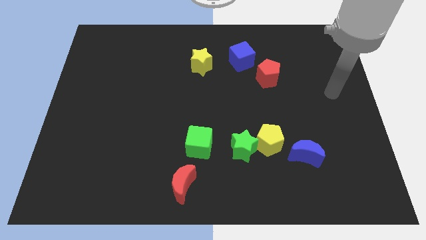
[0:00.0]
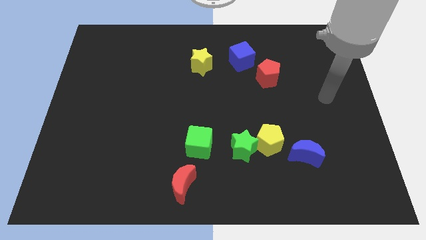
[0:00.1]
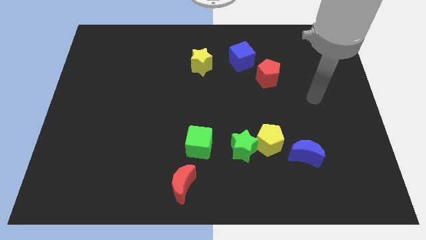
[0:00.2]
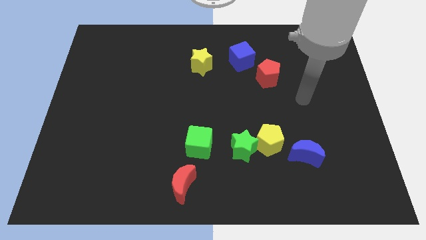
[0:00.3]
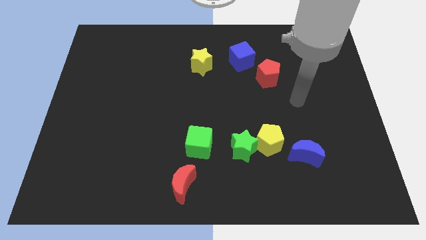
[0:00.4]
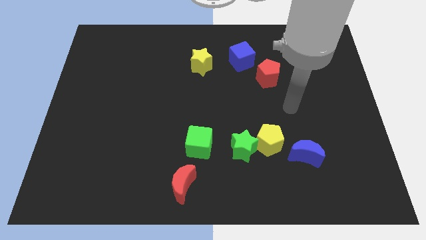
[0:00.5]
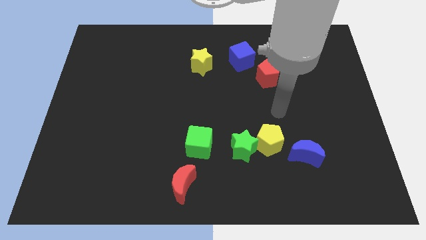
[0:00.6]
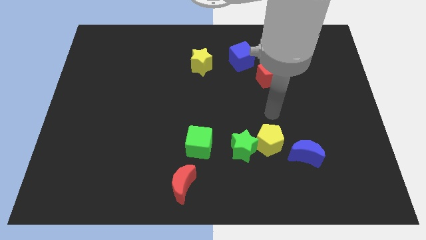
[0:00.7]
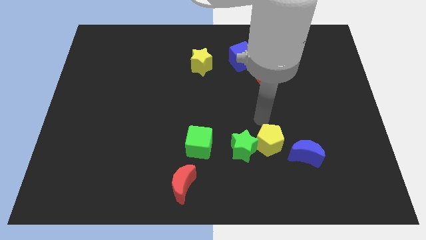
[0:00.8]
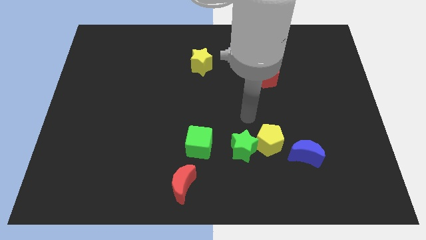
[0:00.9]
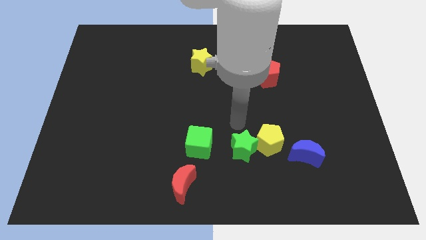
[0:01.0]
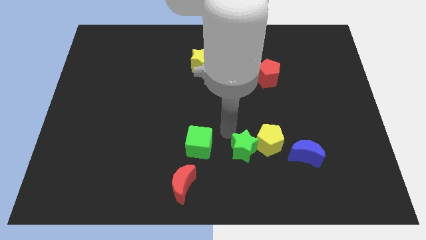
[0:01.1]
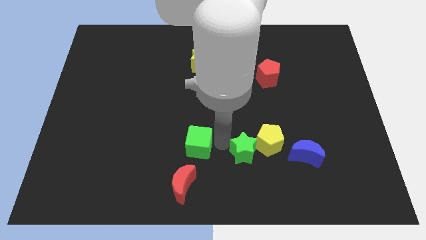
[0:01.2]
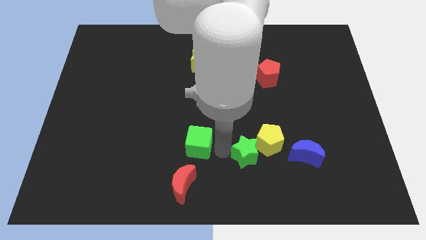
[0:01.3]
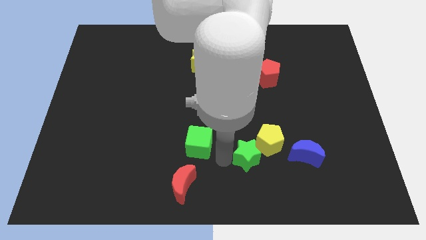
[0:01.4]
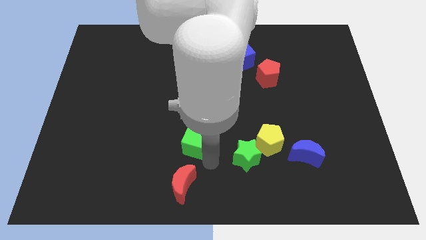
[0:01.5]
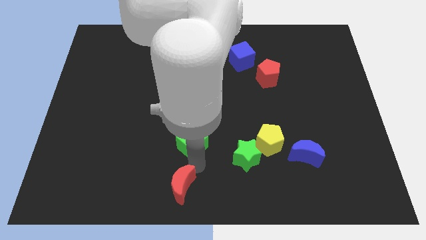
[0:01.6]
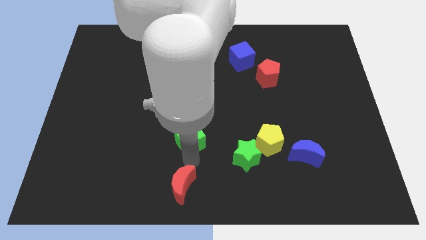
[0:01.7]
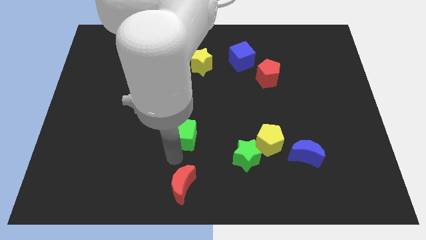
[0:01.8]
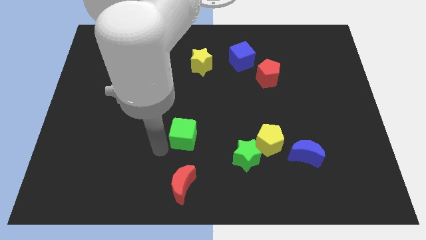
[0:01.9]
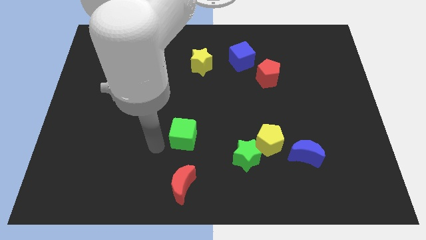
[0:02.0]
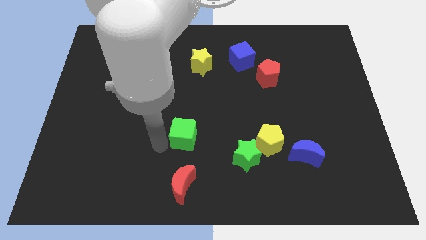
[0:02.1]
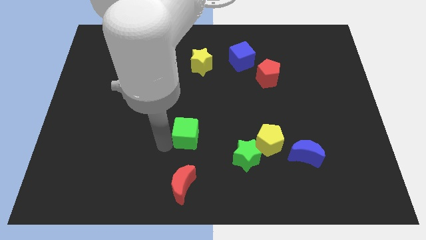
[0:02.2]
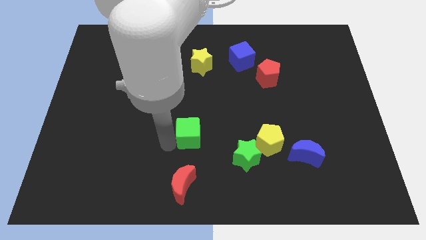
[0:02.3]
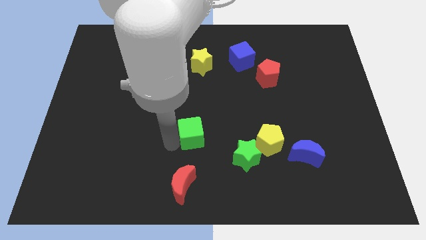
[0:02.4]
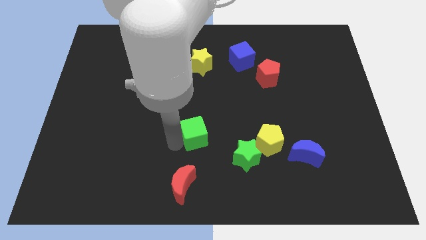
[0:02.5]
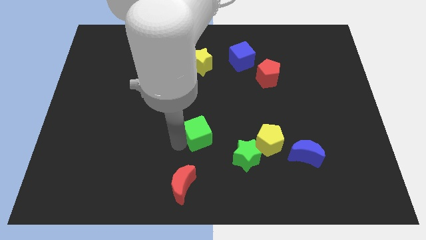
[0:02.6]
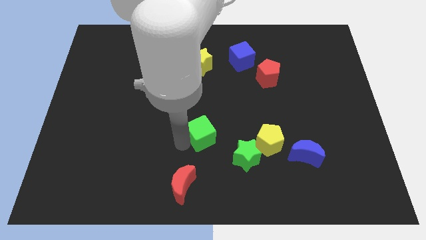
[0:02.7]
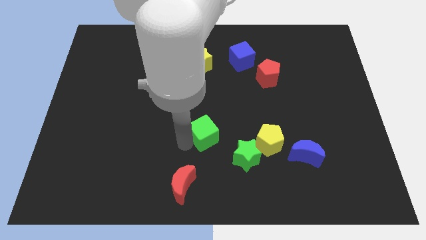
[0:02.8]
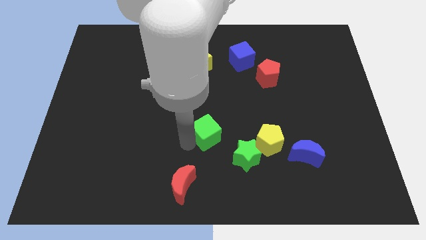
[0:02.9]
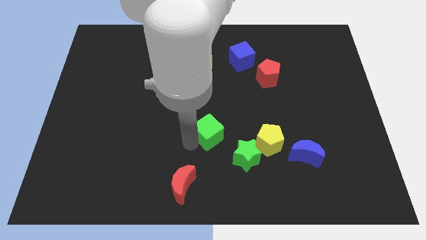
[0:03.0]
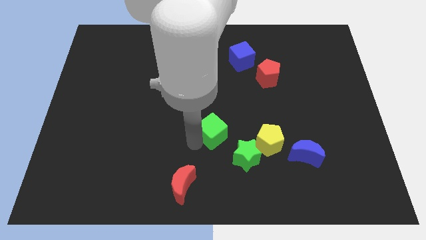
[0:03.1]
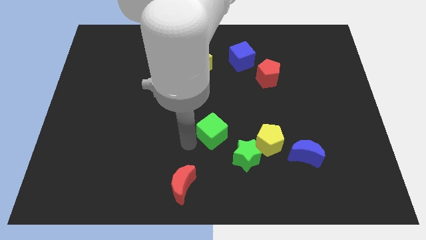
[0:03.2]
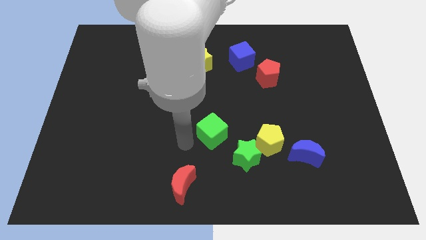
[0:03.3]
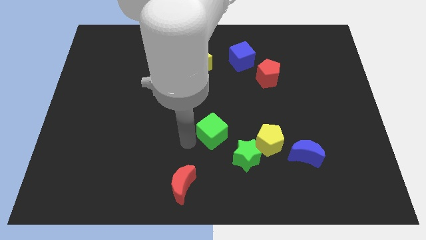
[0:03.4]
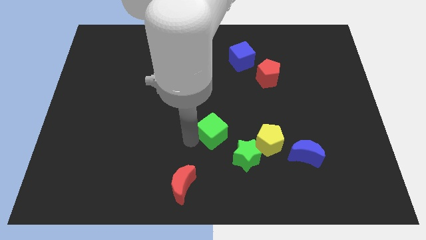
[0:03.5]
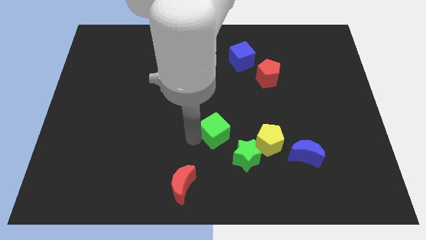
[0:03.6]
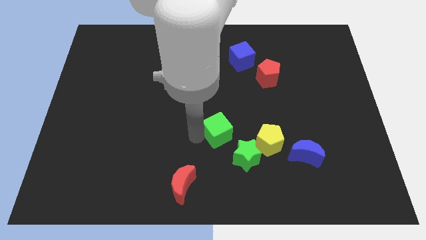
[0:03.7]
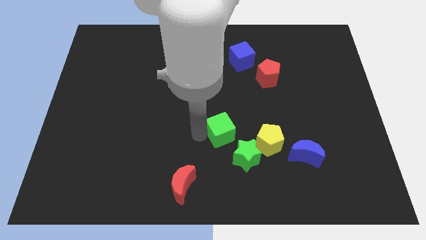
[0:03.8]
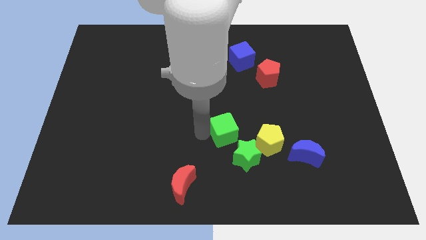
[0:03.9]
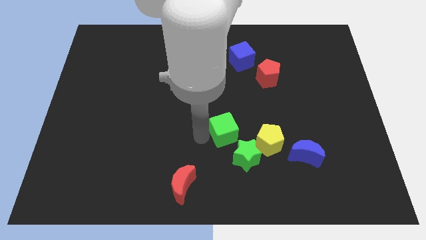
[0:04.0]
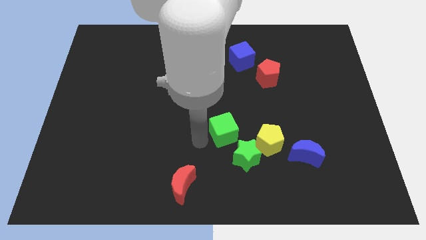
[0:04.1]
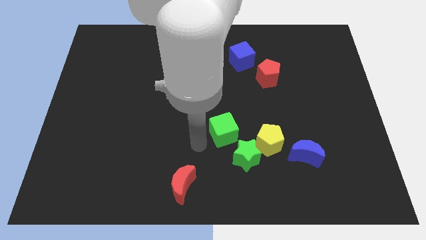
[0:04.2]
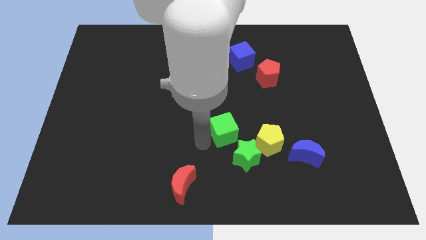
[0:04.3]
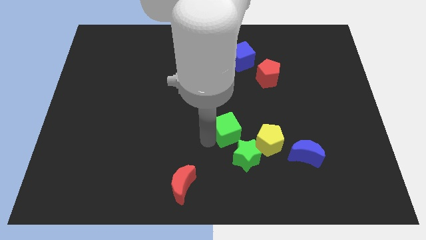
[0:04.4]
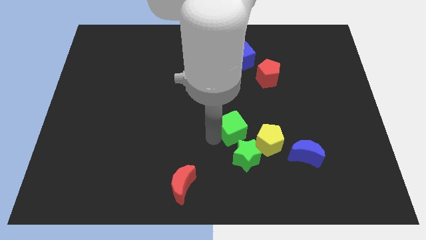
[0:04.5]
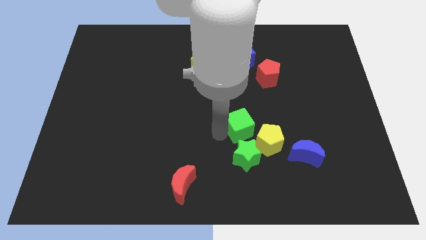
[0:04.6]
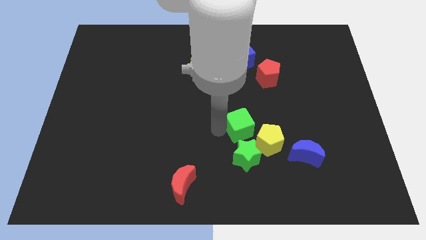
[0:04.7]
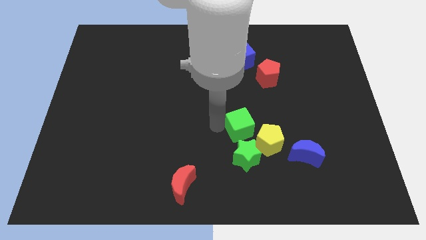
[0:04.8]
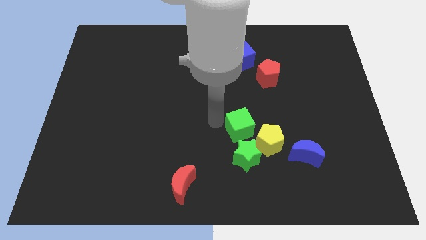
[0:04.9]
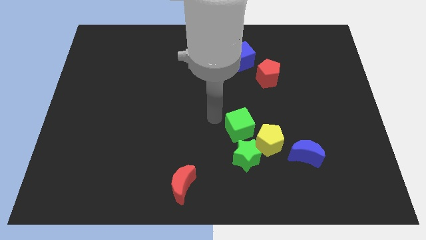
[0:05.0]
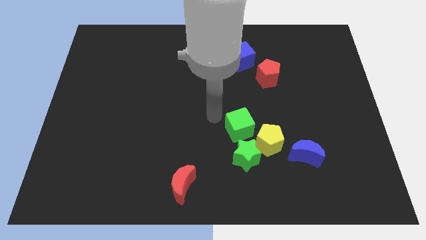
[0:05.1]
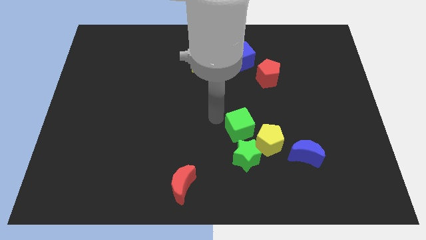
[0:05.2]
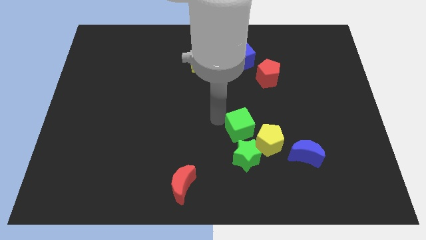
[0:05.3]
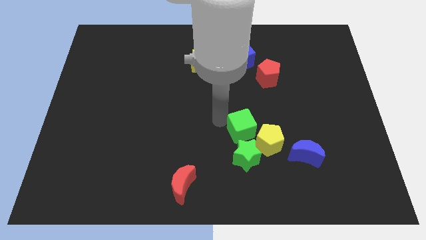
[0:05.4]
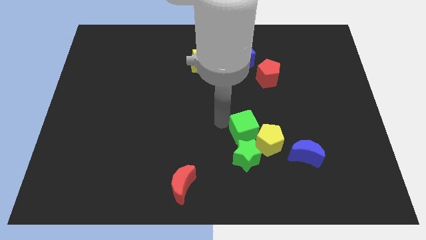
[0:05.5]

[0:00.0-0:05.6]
slide the green cube next to the yellow pentagon

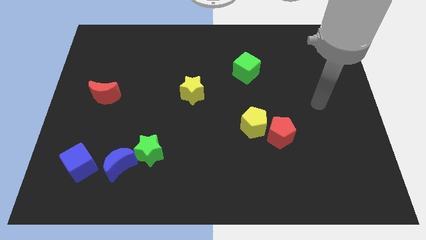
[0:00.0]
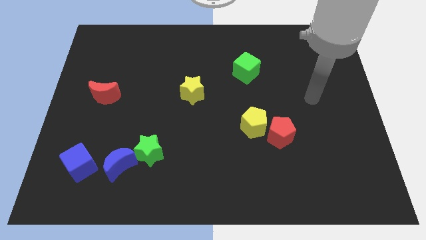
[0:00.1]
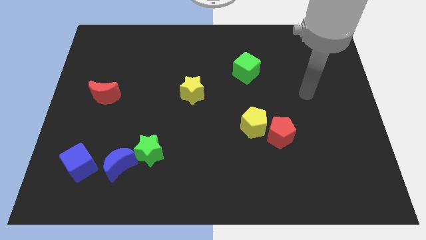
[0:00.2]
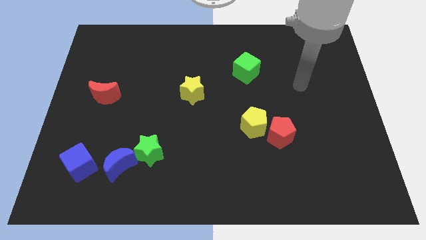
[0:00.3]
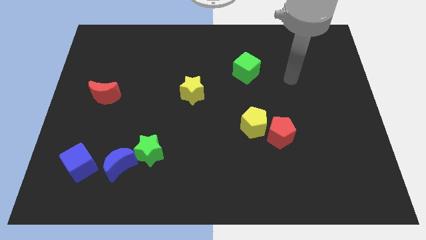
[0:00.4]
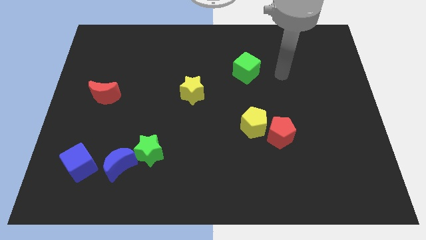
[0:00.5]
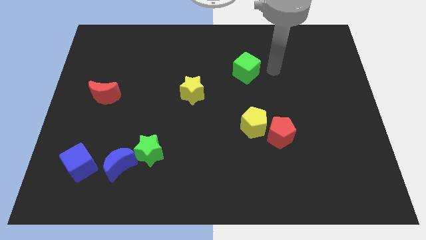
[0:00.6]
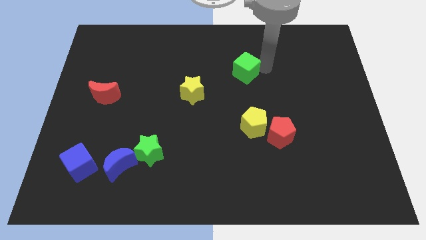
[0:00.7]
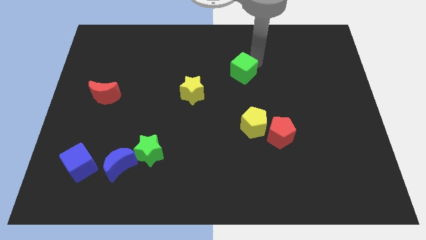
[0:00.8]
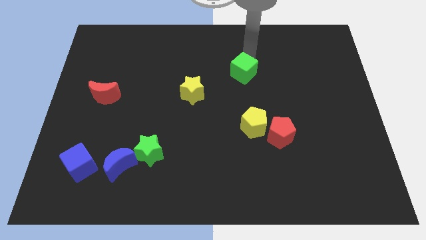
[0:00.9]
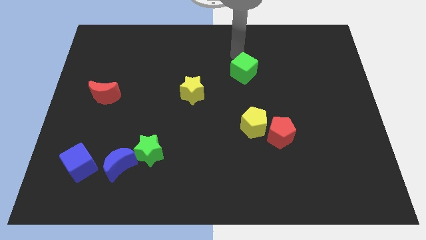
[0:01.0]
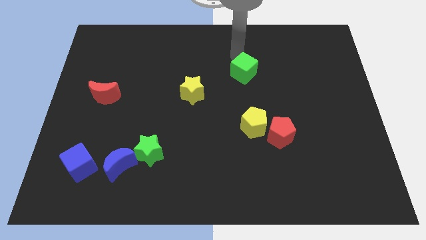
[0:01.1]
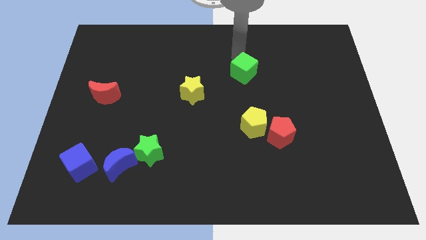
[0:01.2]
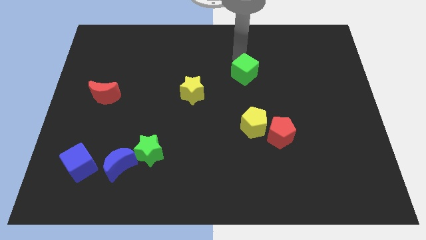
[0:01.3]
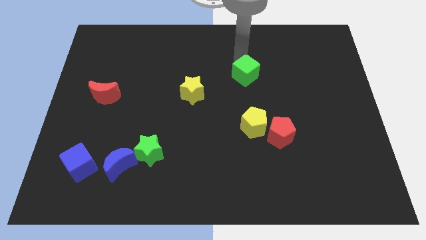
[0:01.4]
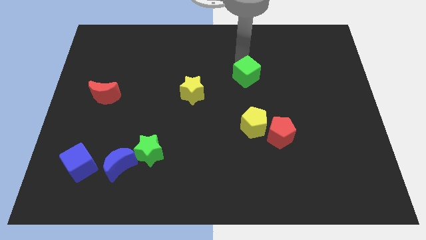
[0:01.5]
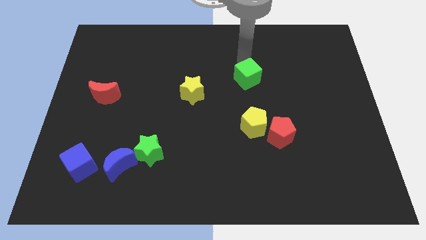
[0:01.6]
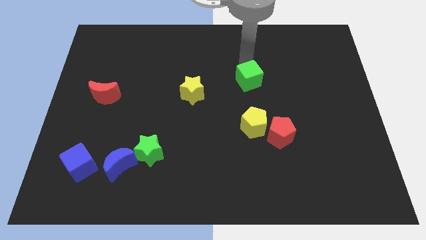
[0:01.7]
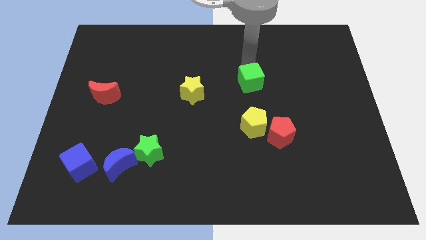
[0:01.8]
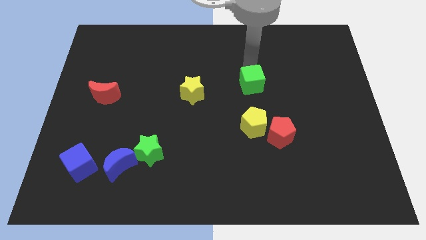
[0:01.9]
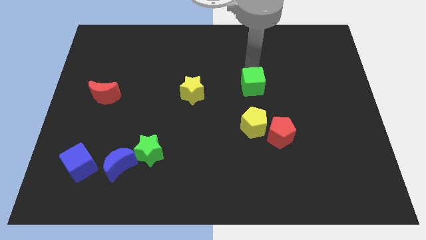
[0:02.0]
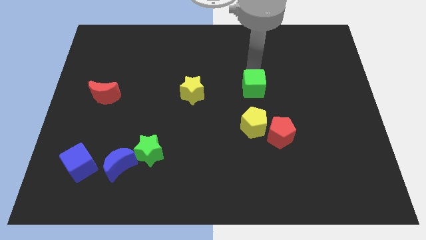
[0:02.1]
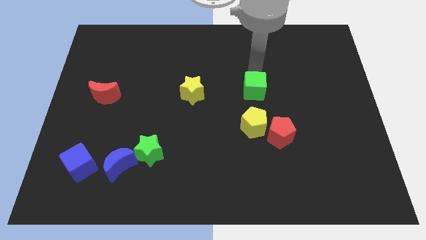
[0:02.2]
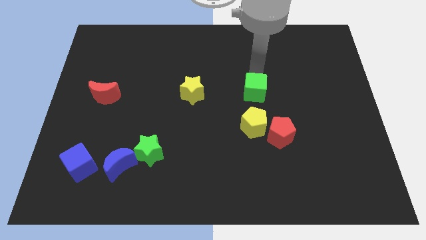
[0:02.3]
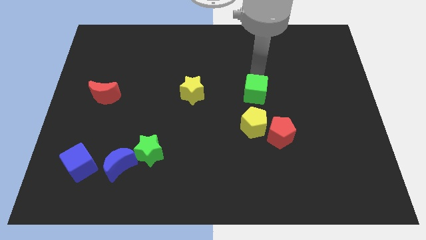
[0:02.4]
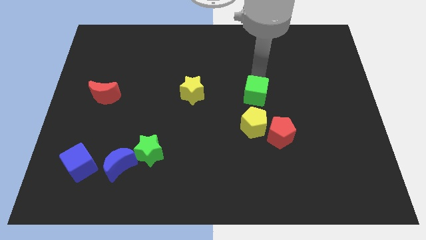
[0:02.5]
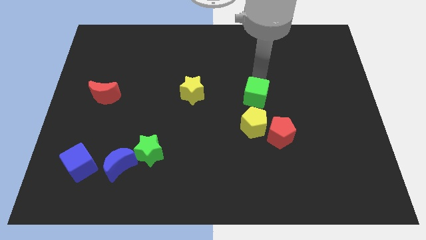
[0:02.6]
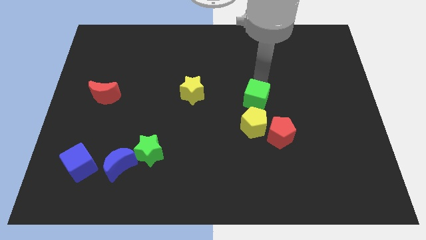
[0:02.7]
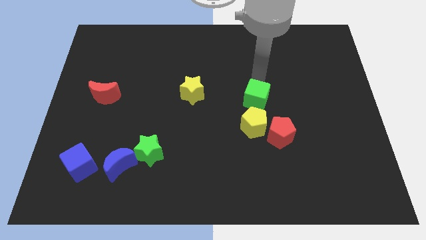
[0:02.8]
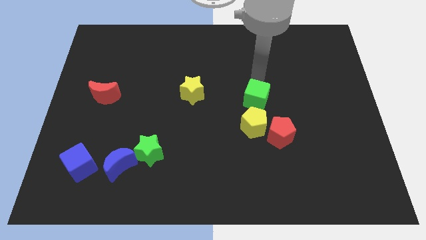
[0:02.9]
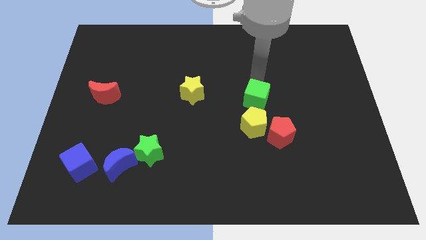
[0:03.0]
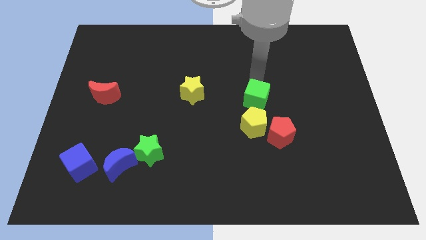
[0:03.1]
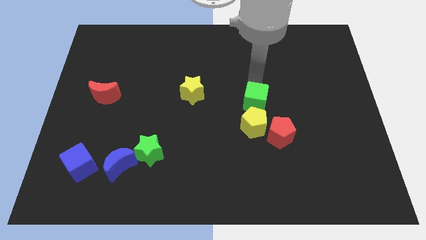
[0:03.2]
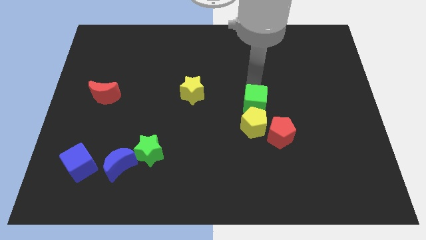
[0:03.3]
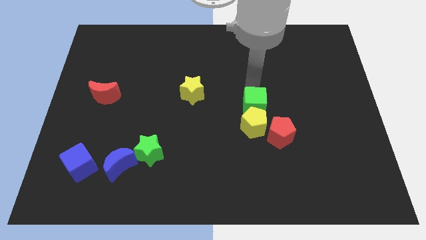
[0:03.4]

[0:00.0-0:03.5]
put the green cube close to the yellow pentagon
